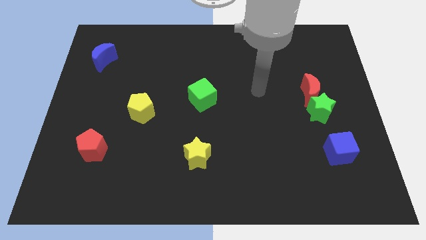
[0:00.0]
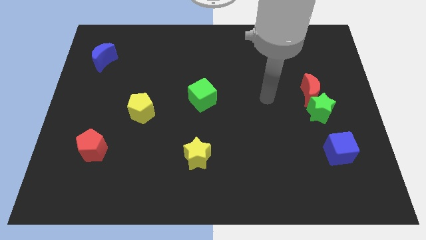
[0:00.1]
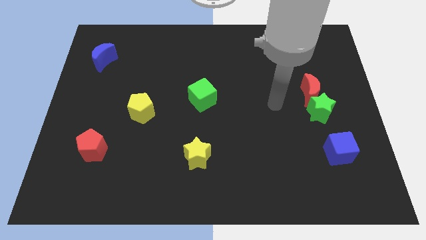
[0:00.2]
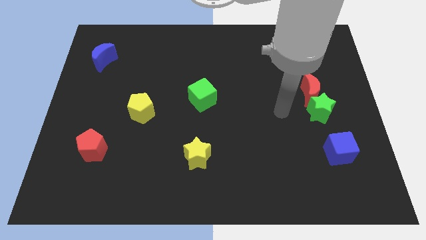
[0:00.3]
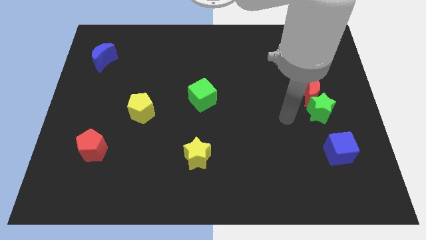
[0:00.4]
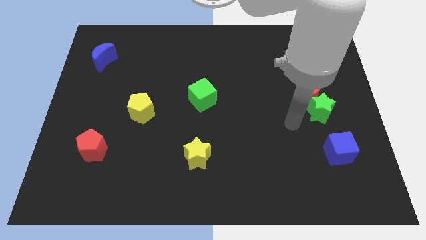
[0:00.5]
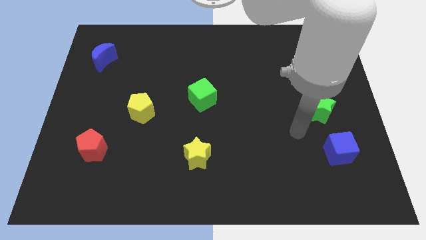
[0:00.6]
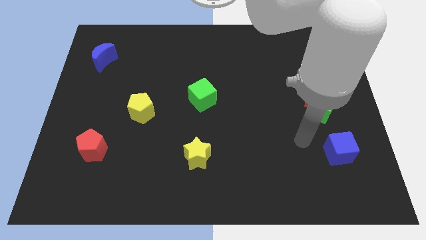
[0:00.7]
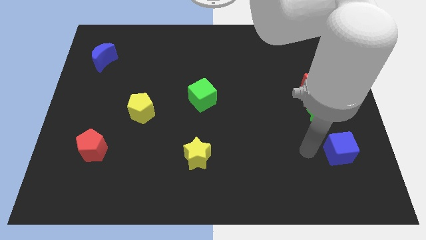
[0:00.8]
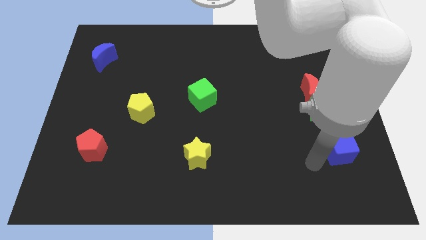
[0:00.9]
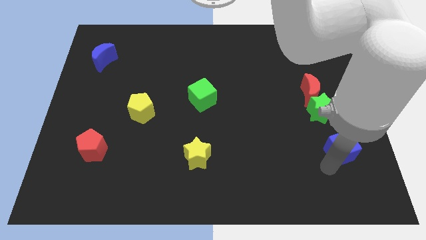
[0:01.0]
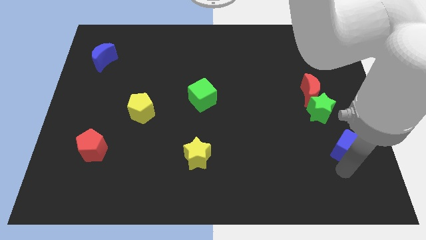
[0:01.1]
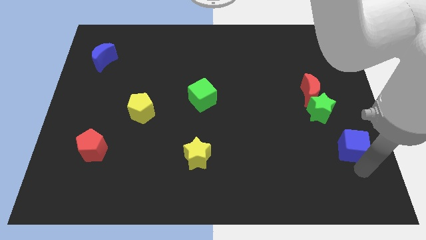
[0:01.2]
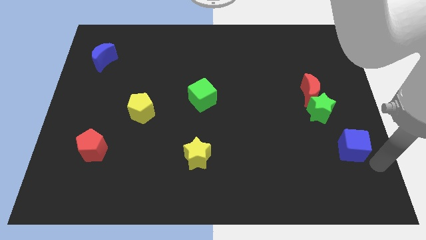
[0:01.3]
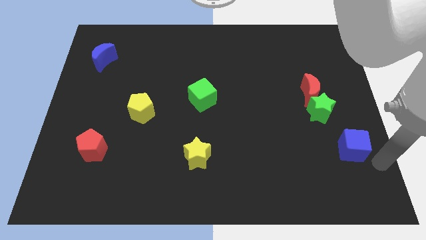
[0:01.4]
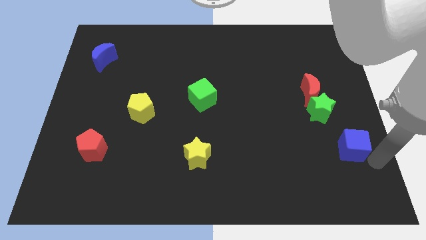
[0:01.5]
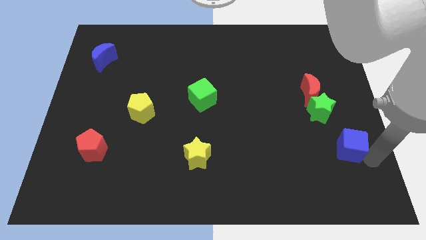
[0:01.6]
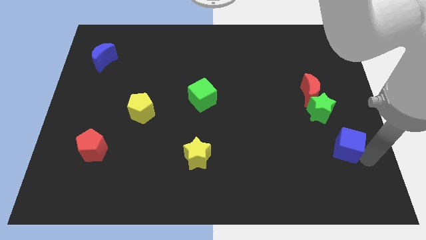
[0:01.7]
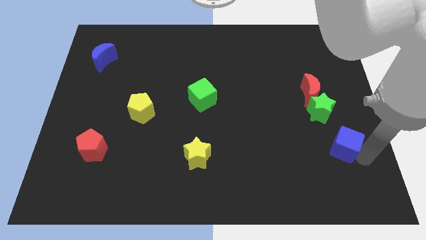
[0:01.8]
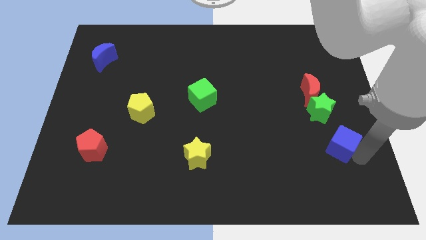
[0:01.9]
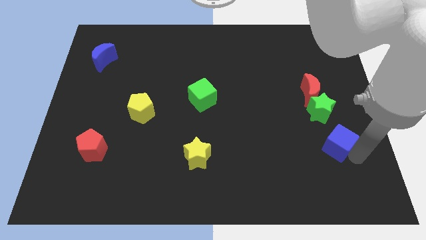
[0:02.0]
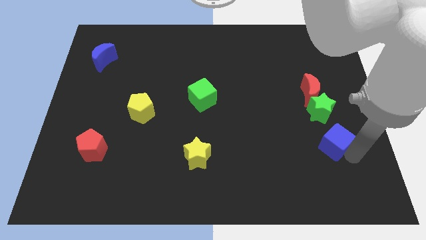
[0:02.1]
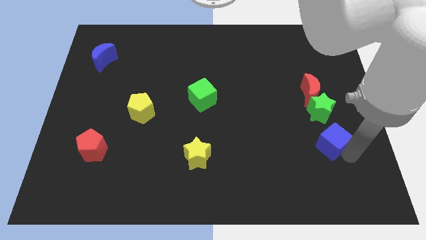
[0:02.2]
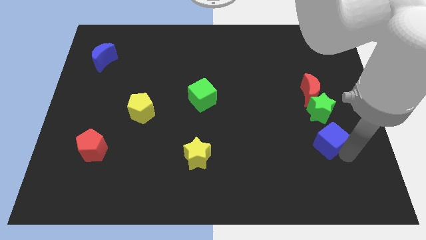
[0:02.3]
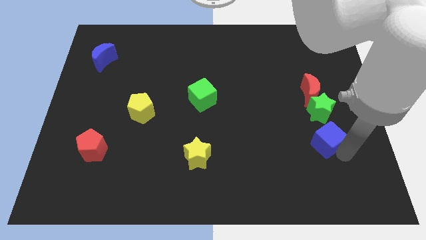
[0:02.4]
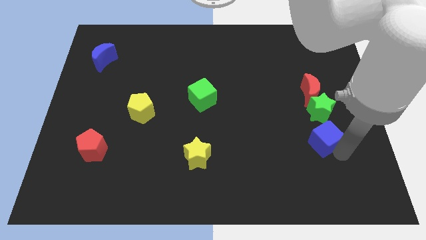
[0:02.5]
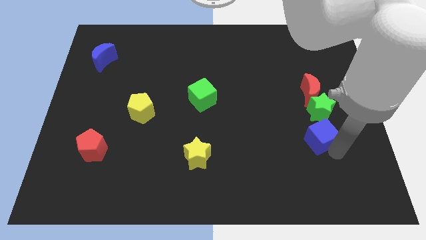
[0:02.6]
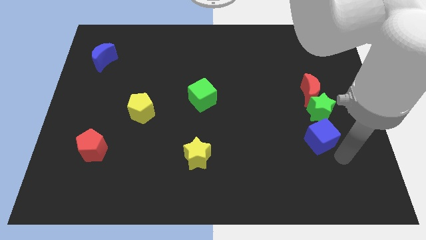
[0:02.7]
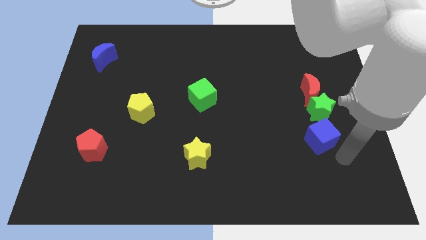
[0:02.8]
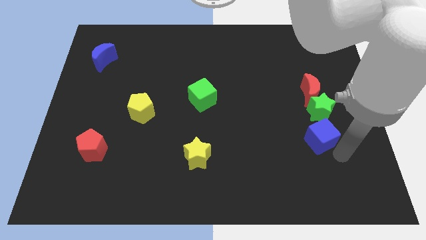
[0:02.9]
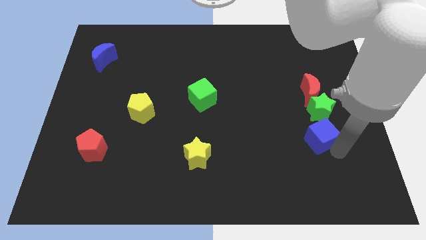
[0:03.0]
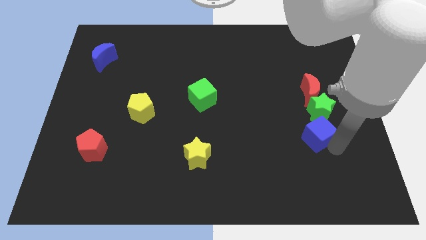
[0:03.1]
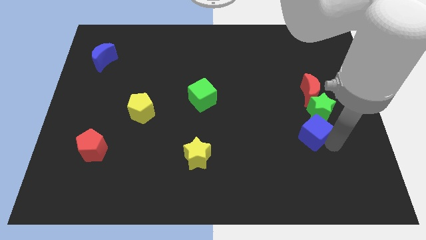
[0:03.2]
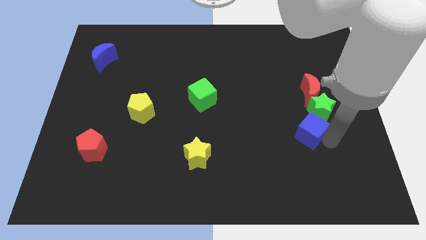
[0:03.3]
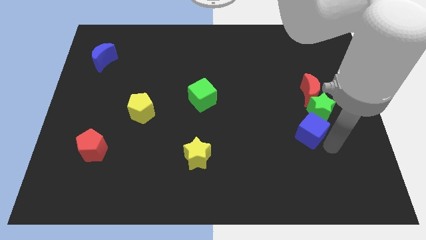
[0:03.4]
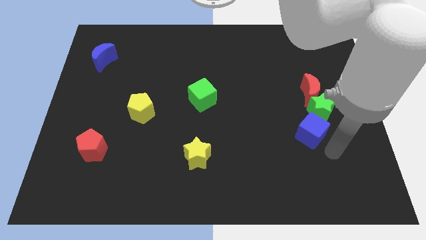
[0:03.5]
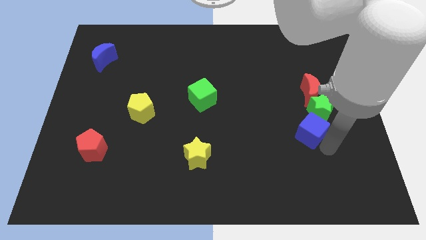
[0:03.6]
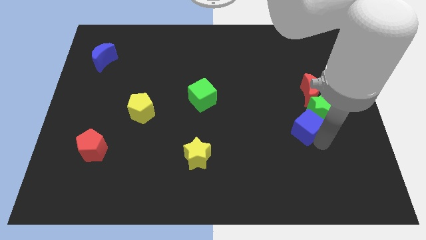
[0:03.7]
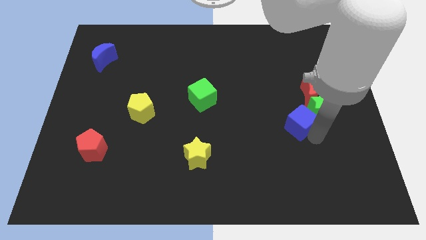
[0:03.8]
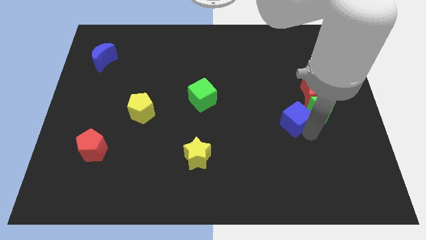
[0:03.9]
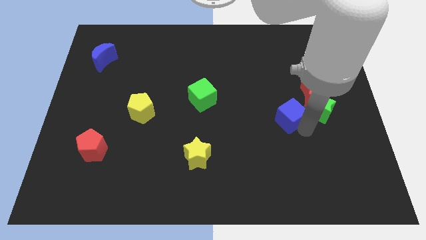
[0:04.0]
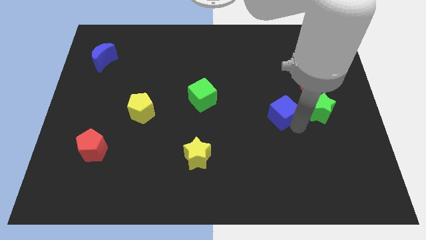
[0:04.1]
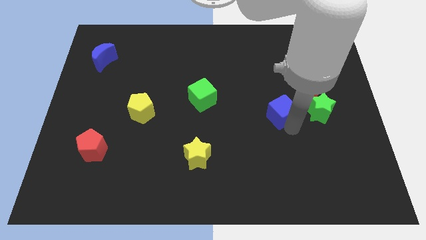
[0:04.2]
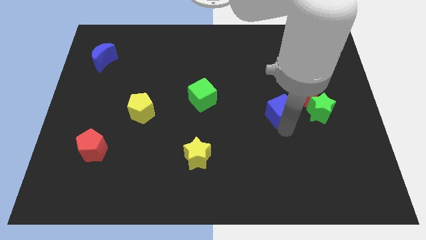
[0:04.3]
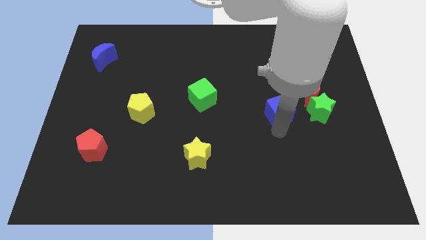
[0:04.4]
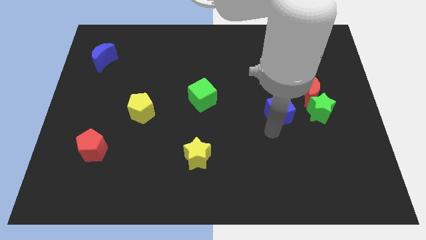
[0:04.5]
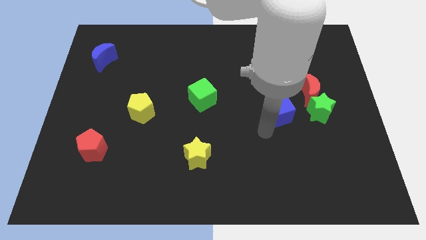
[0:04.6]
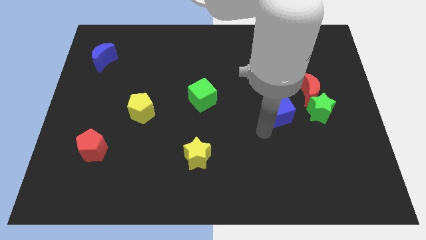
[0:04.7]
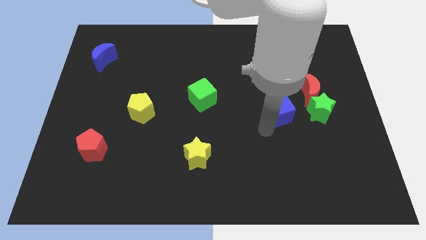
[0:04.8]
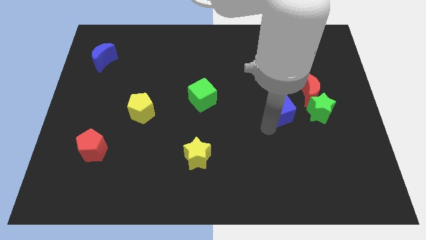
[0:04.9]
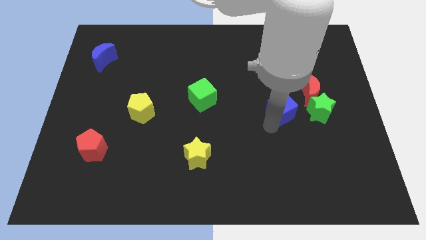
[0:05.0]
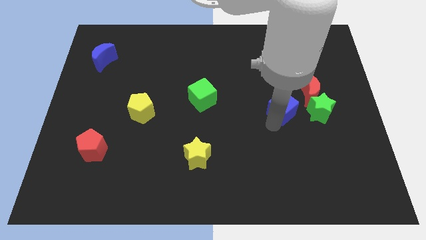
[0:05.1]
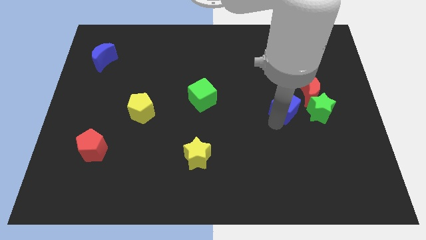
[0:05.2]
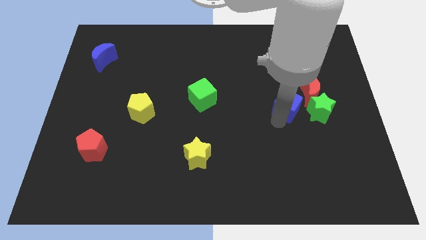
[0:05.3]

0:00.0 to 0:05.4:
put the blue cube to the top left side of the green star

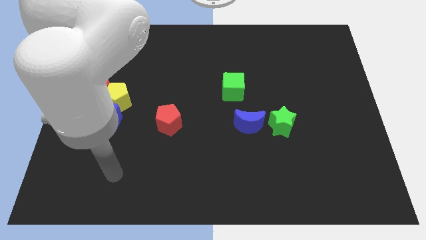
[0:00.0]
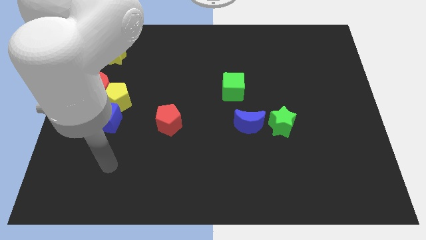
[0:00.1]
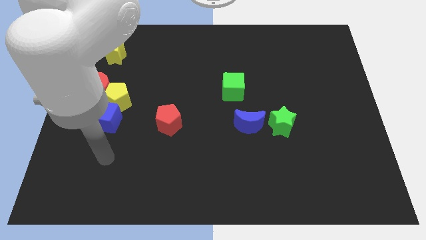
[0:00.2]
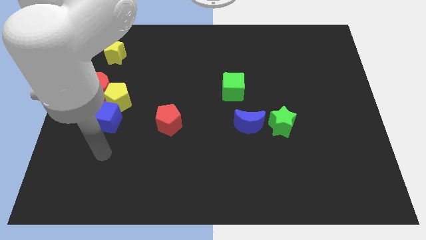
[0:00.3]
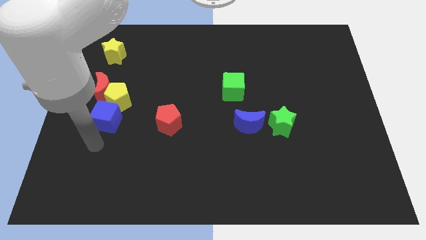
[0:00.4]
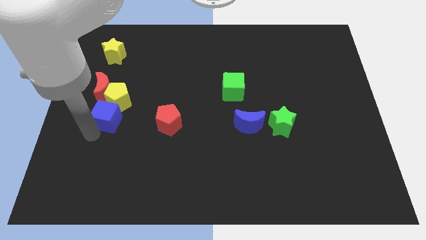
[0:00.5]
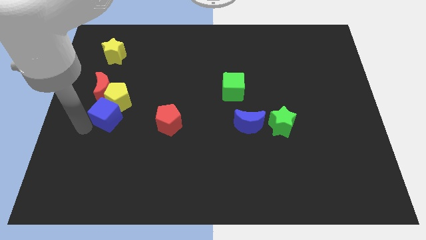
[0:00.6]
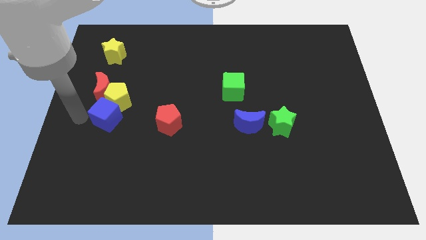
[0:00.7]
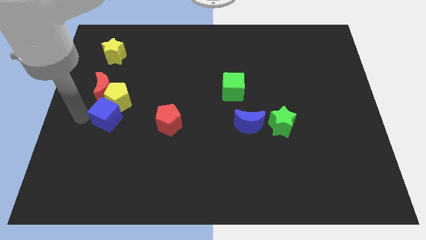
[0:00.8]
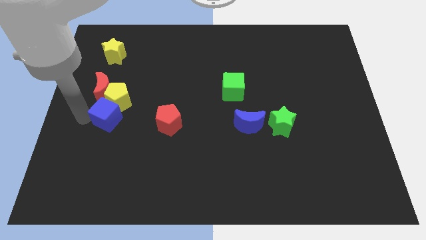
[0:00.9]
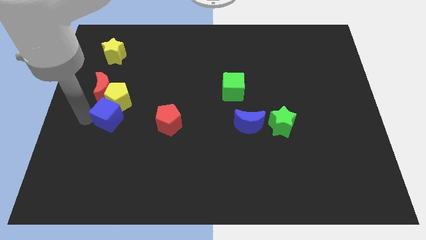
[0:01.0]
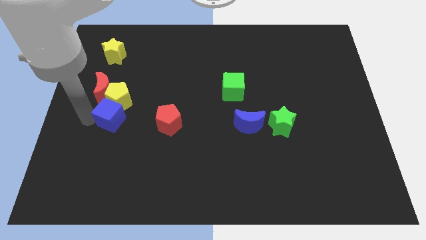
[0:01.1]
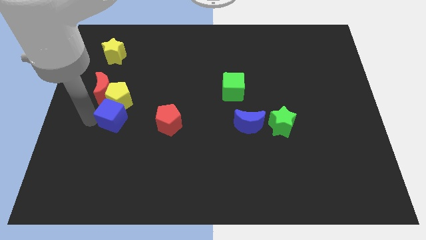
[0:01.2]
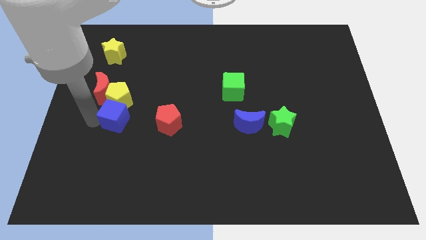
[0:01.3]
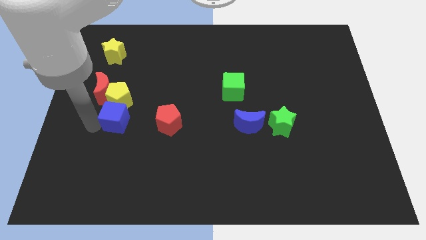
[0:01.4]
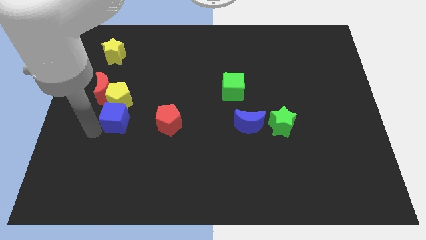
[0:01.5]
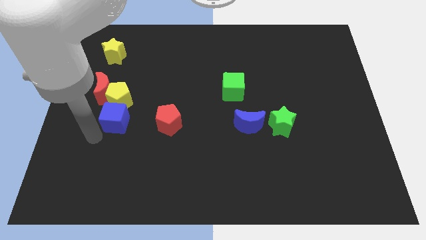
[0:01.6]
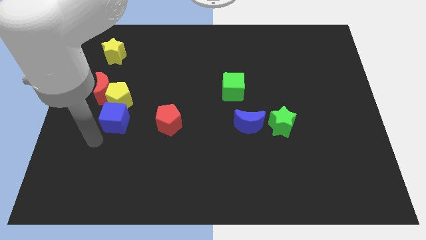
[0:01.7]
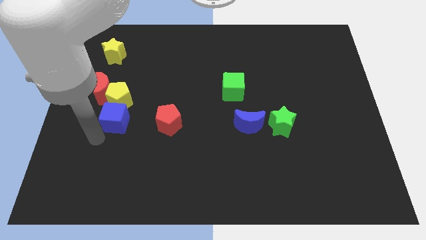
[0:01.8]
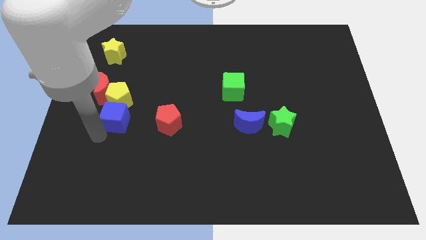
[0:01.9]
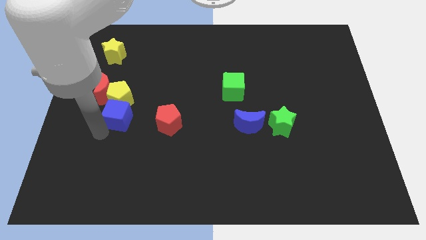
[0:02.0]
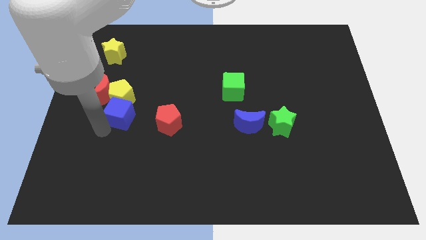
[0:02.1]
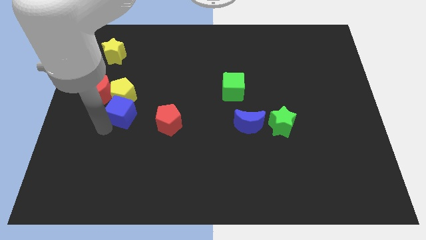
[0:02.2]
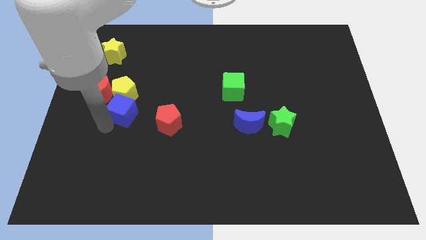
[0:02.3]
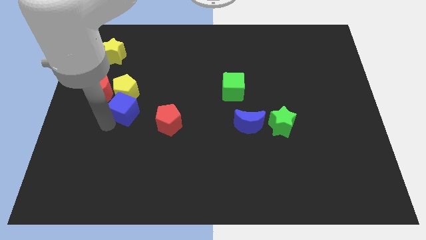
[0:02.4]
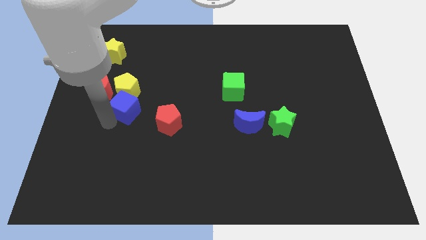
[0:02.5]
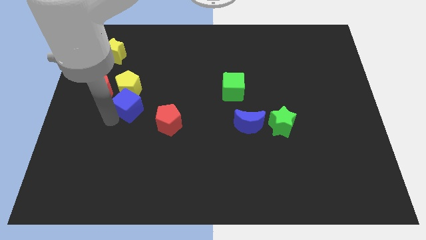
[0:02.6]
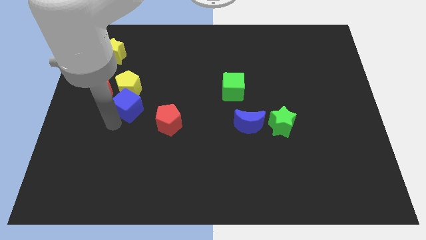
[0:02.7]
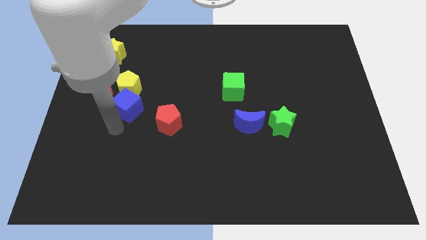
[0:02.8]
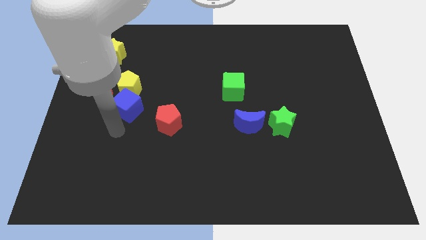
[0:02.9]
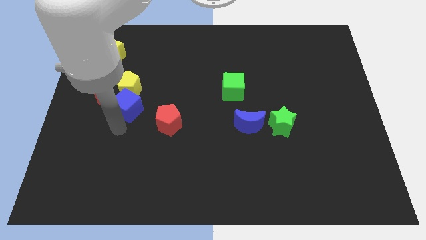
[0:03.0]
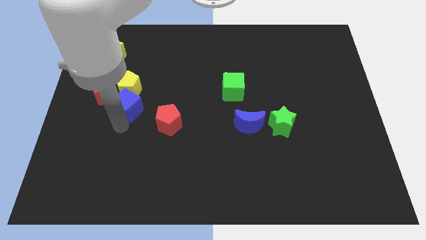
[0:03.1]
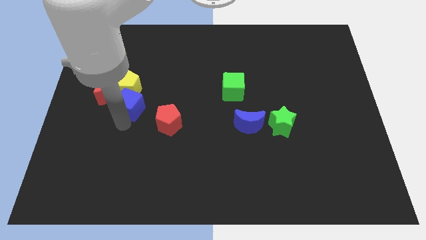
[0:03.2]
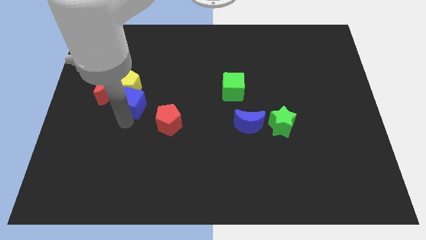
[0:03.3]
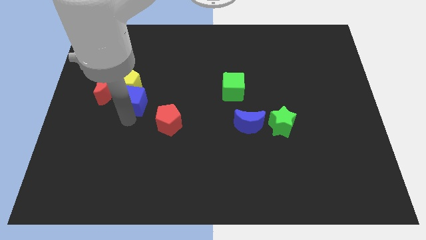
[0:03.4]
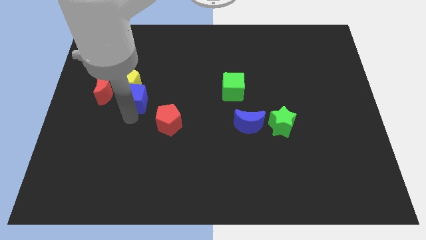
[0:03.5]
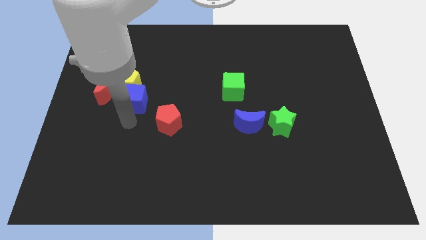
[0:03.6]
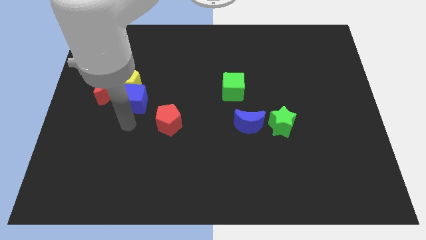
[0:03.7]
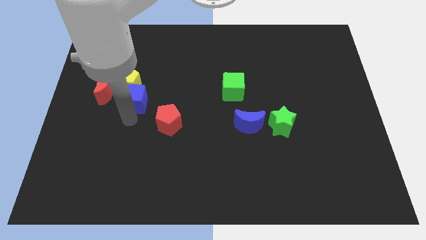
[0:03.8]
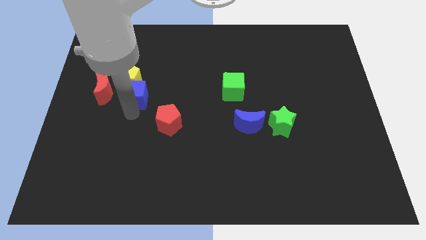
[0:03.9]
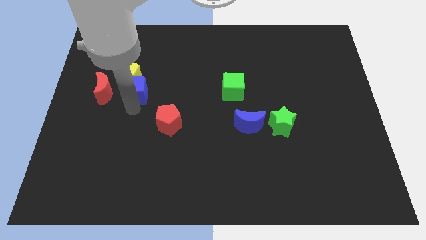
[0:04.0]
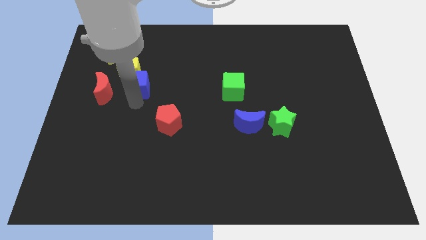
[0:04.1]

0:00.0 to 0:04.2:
move the blue cube diagonally up and to the right of the red moon
